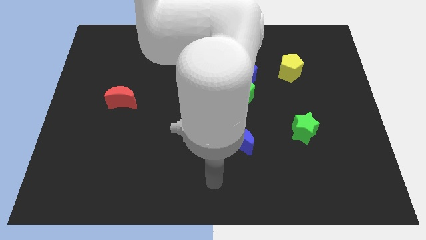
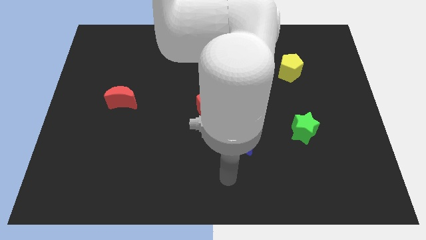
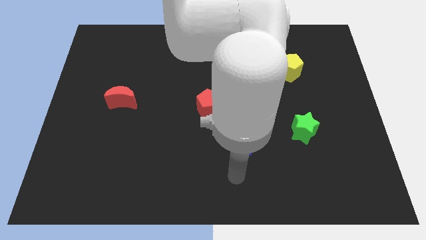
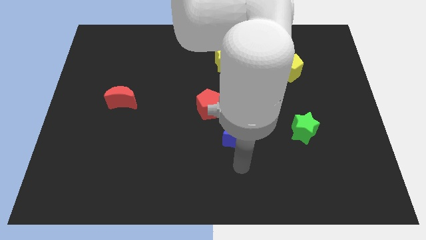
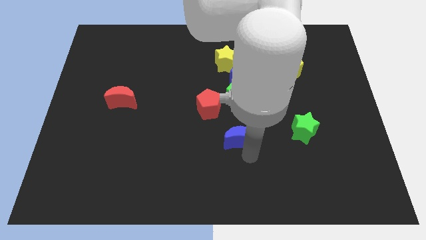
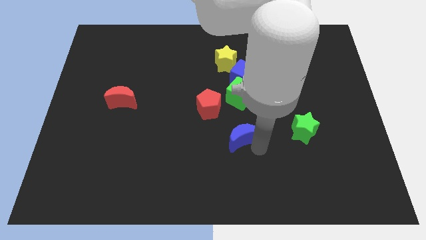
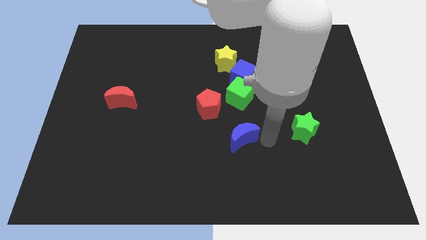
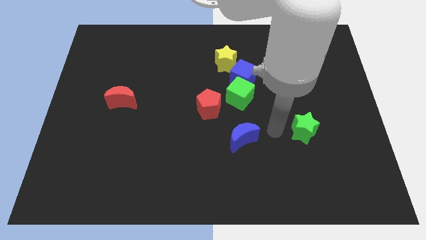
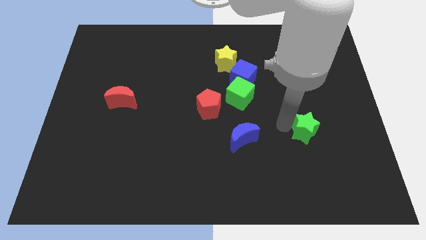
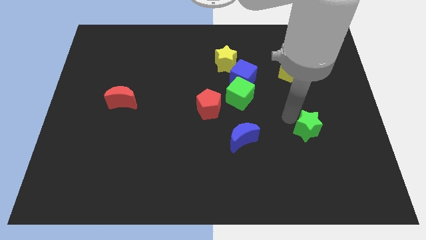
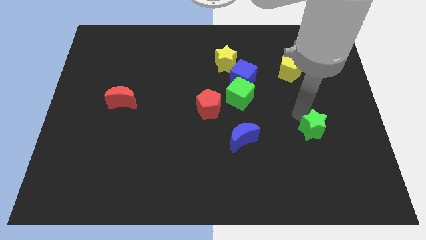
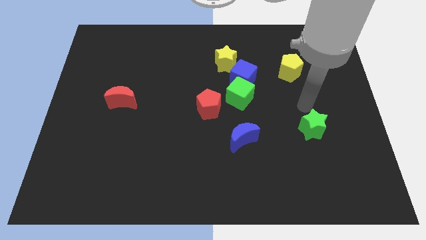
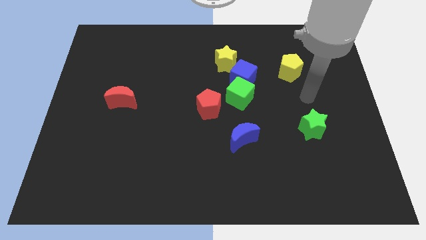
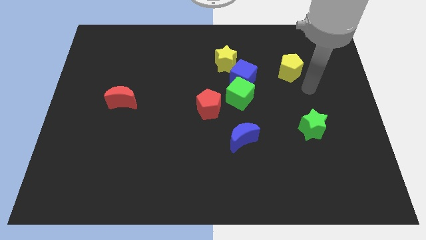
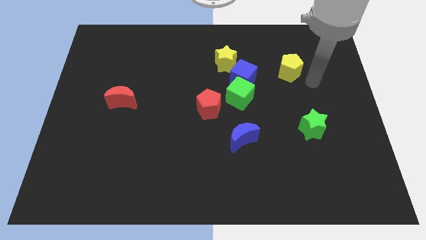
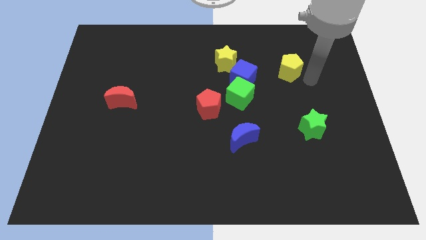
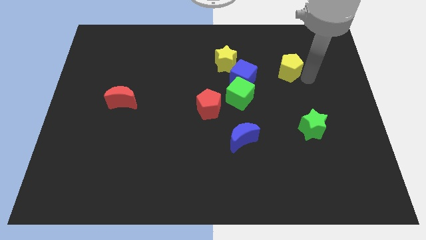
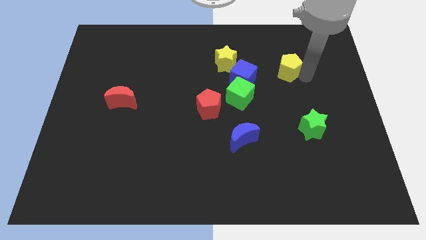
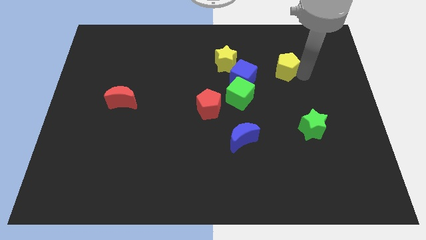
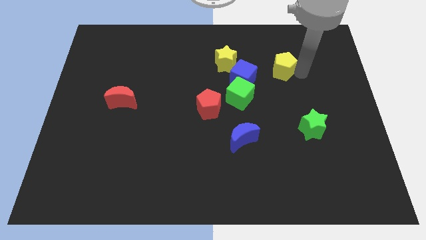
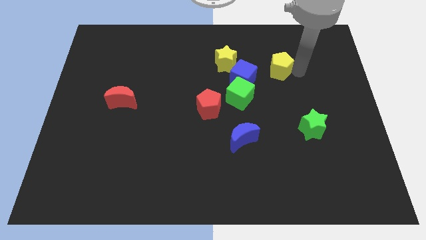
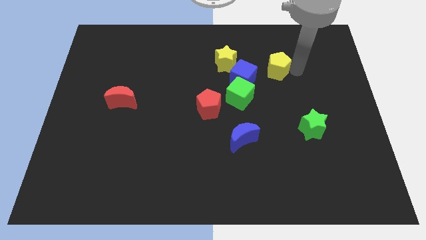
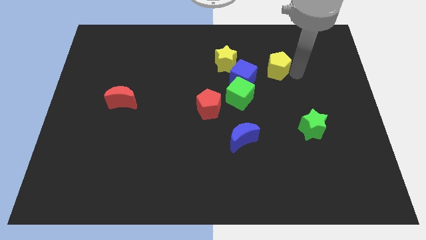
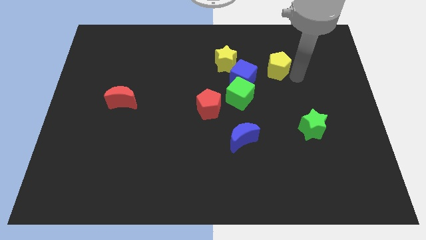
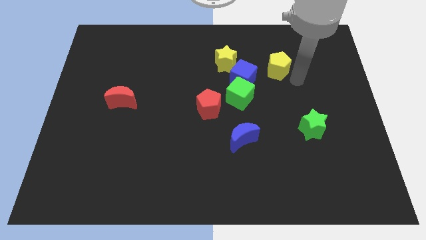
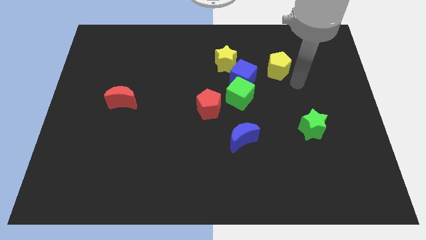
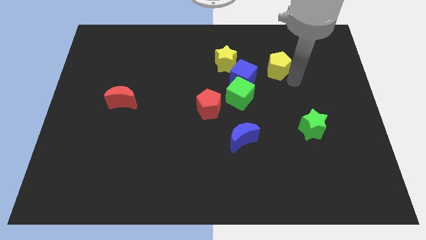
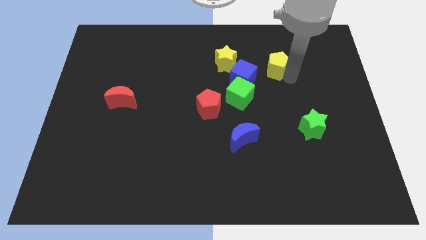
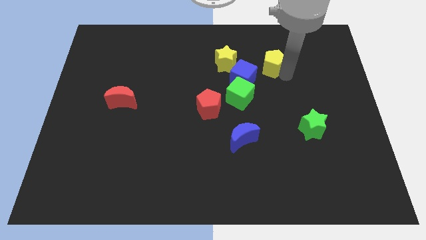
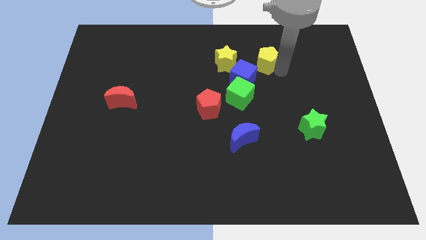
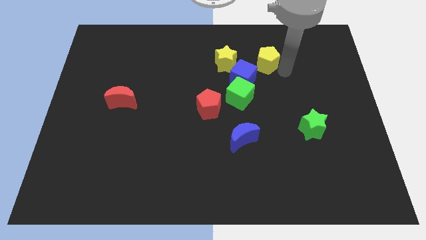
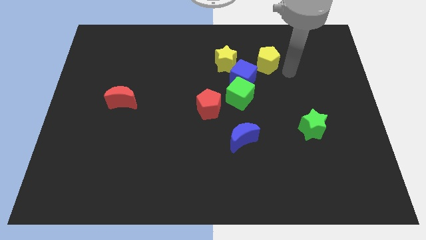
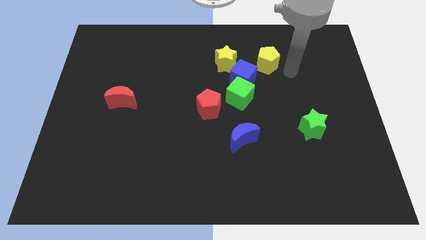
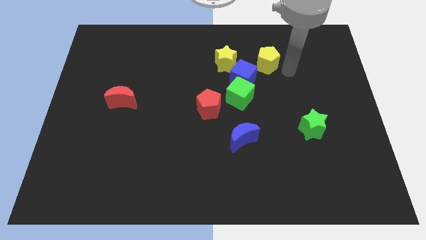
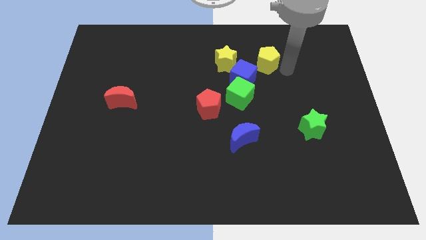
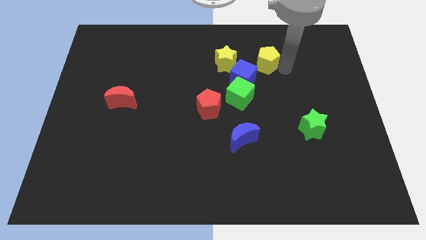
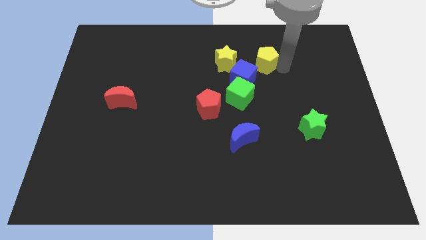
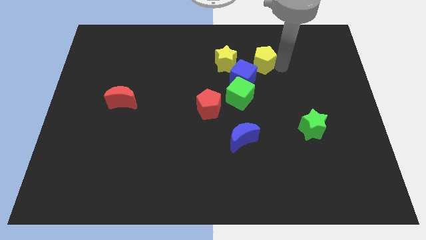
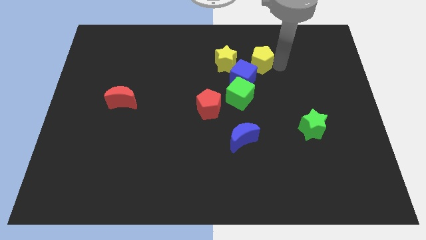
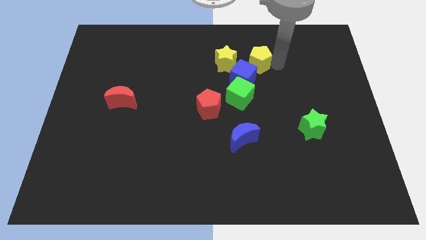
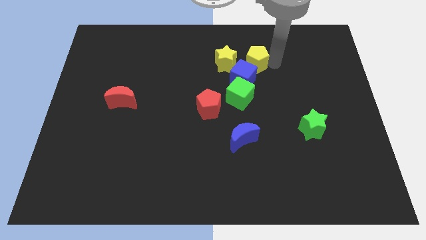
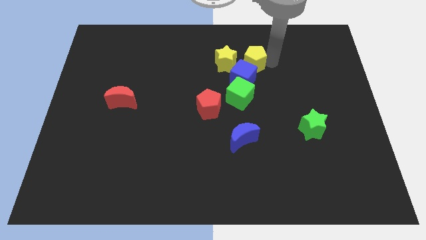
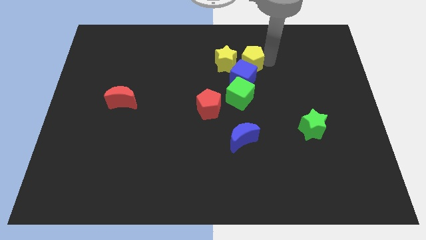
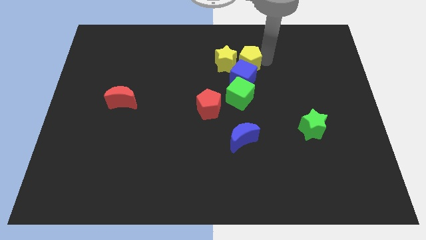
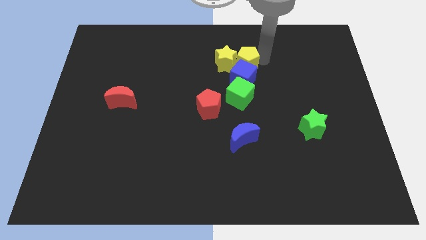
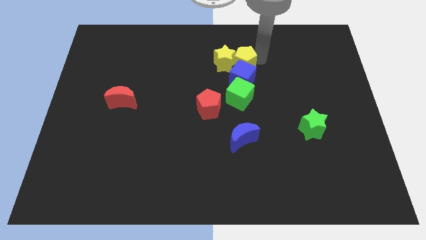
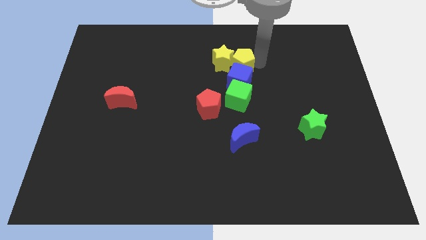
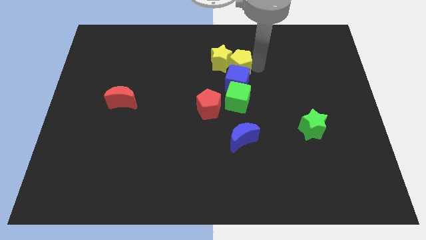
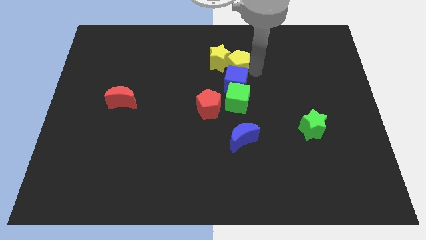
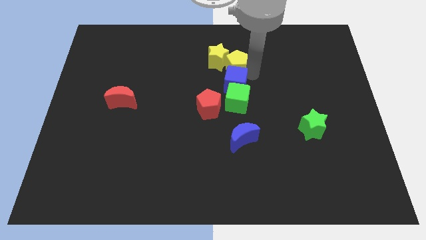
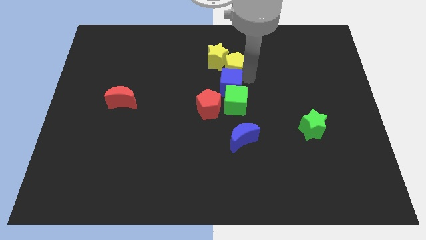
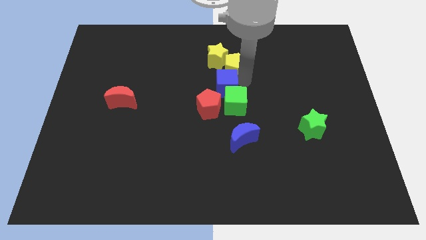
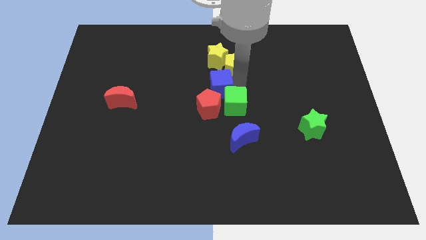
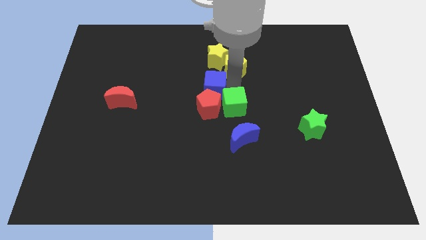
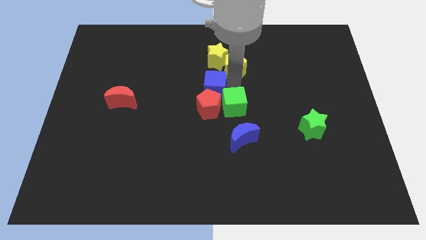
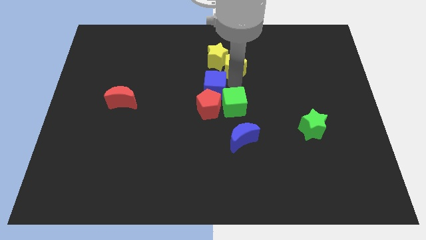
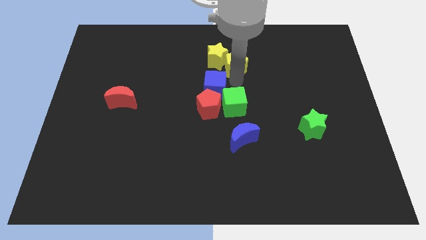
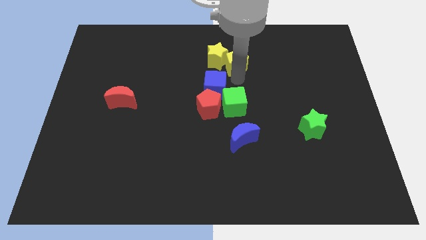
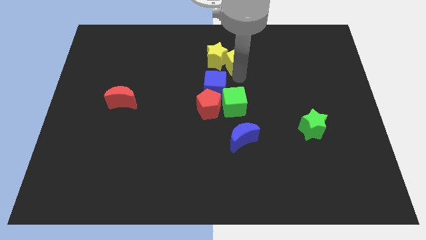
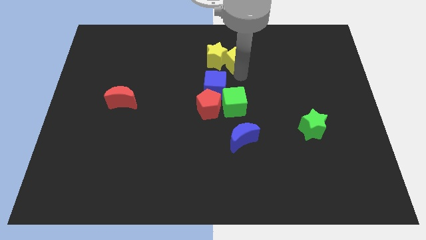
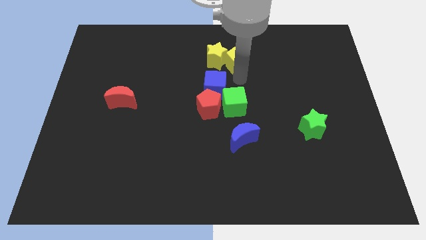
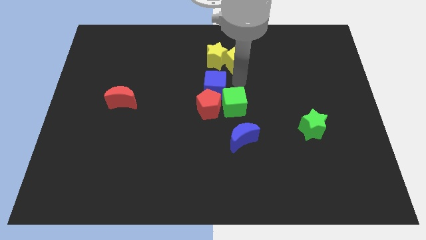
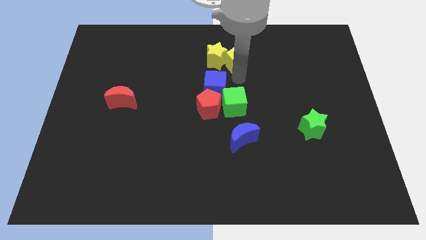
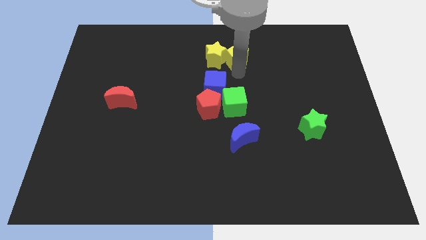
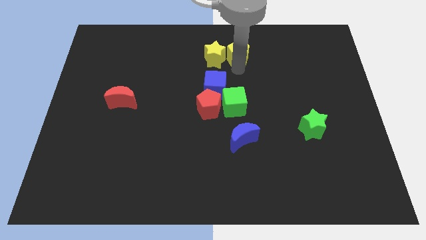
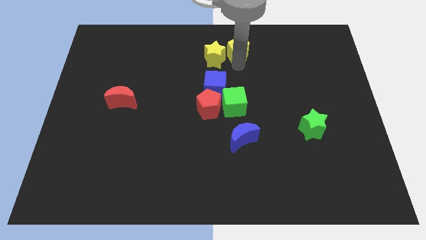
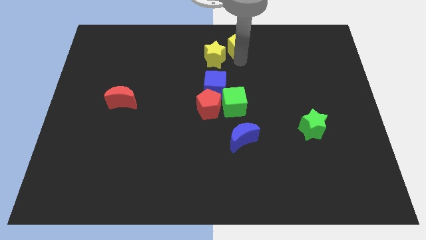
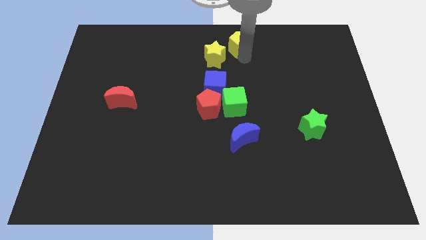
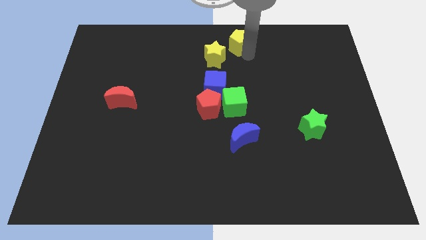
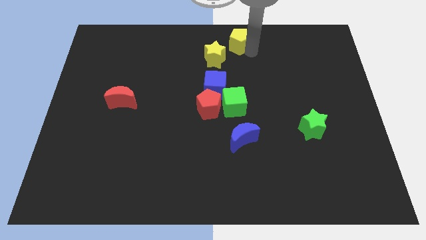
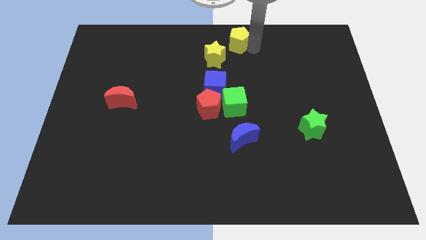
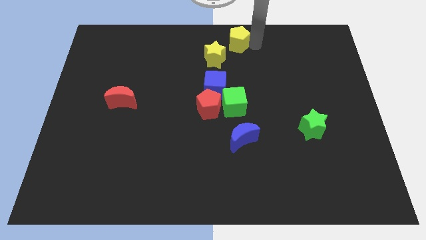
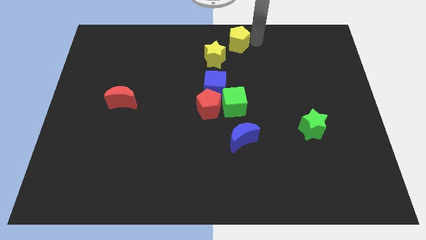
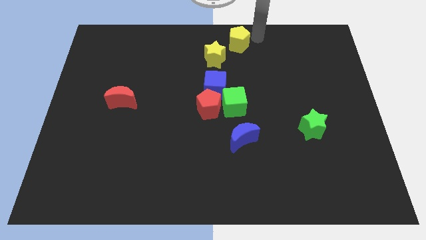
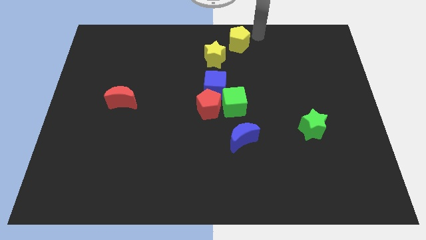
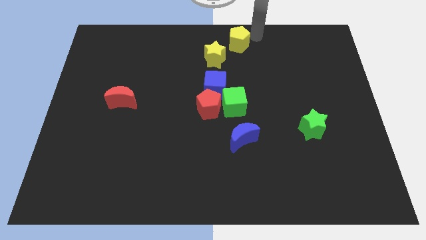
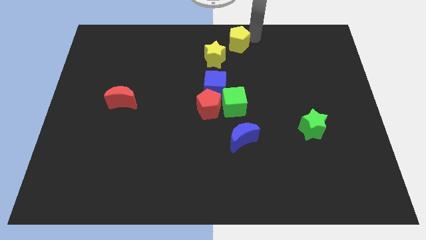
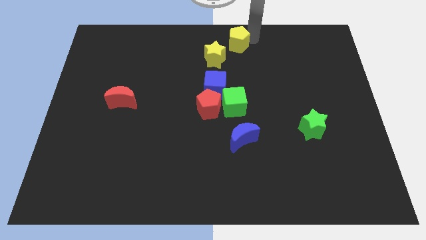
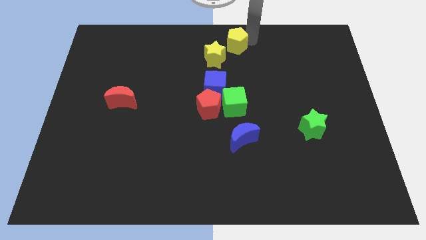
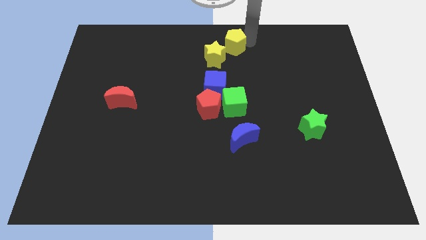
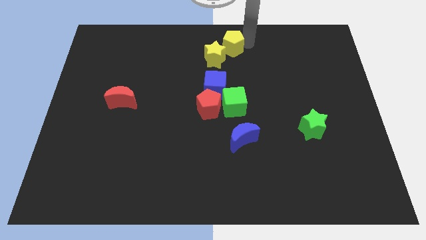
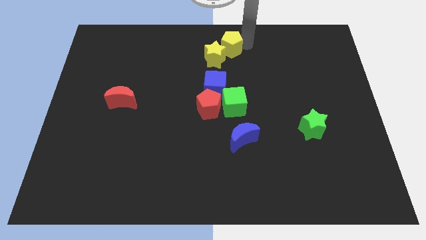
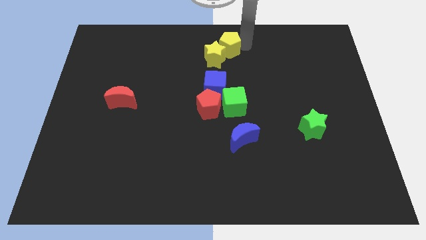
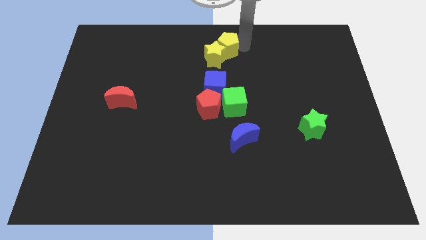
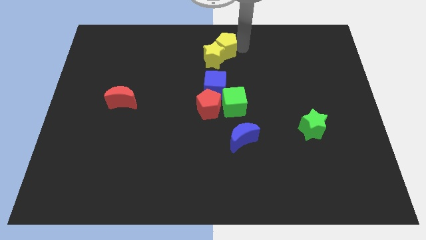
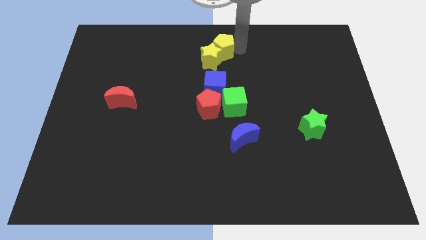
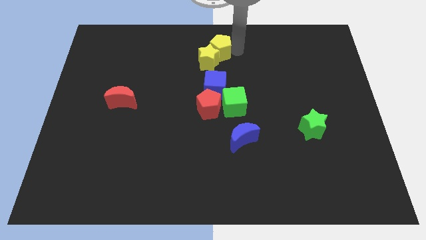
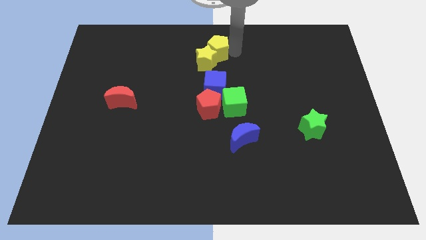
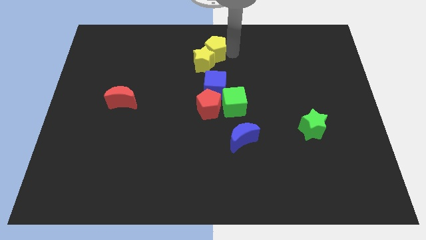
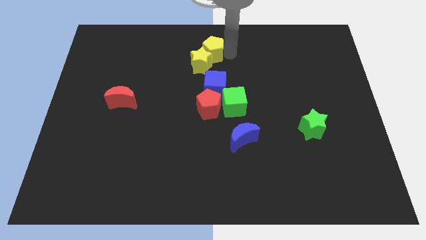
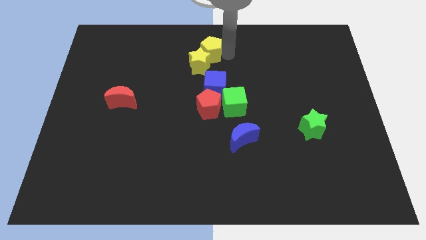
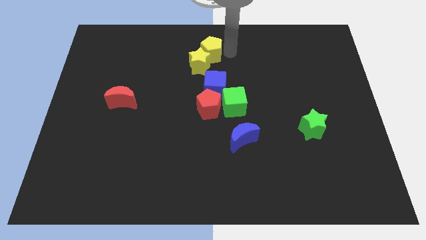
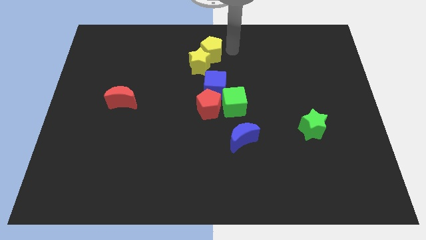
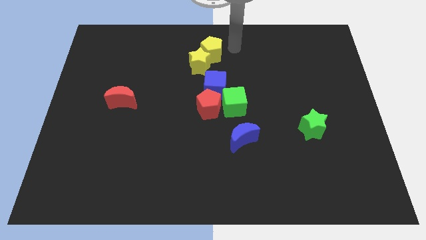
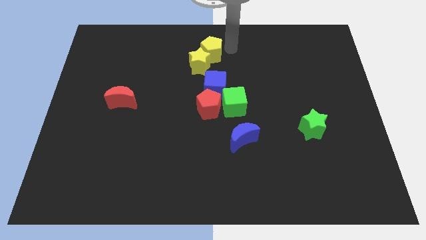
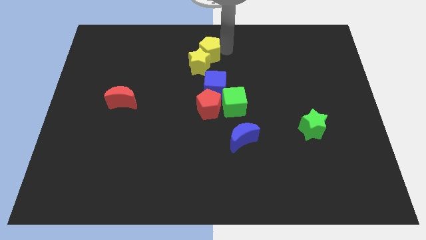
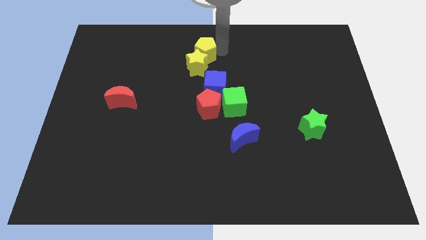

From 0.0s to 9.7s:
slide the yellow pentagon to the left
